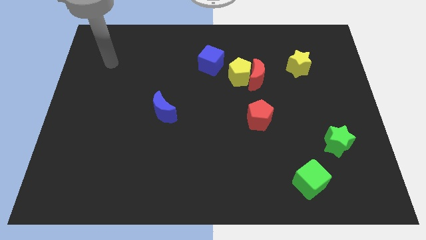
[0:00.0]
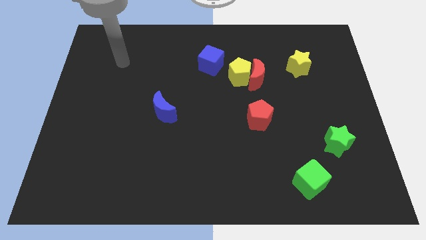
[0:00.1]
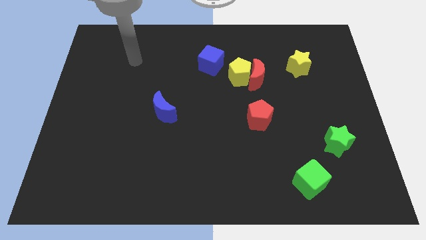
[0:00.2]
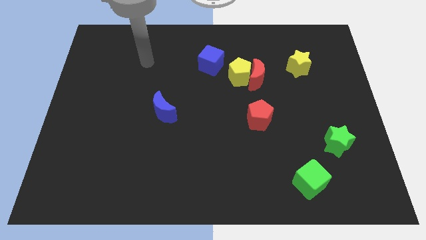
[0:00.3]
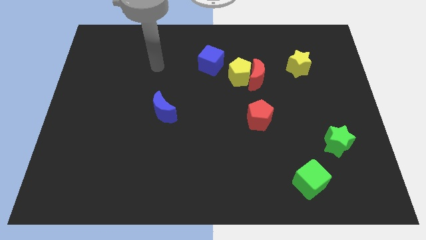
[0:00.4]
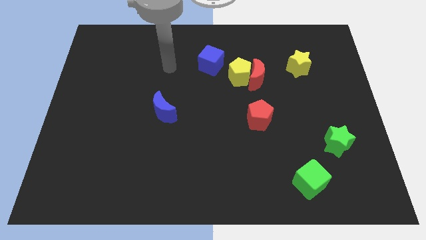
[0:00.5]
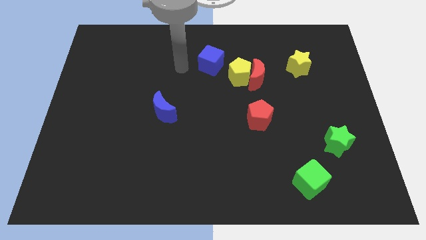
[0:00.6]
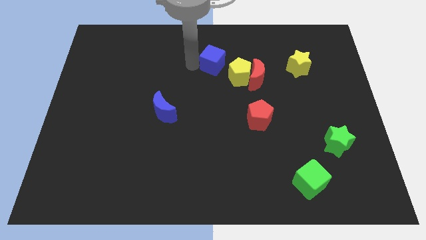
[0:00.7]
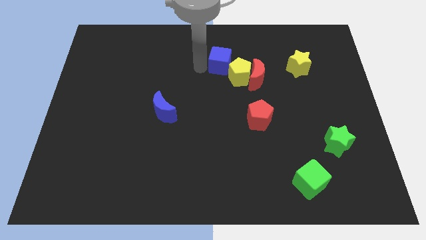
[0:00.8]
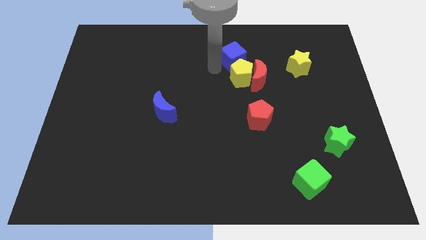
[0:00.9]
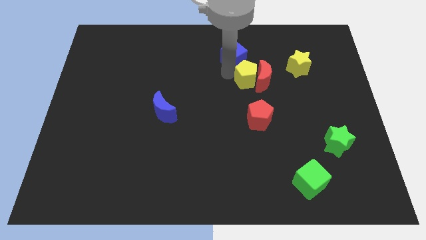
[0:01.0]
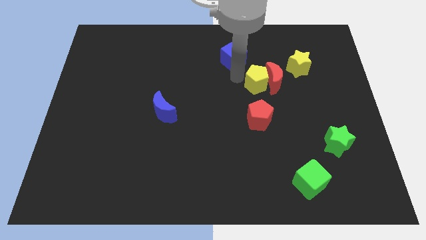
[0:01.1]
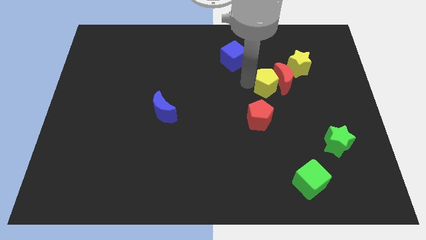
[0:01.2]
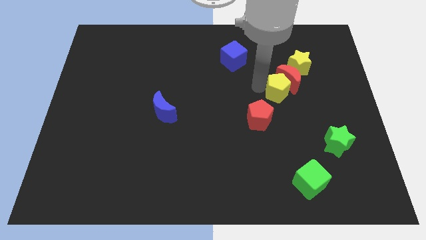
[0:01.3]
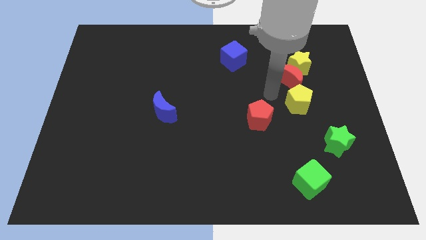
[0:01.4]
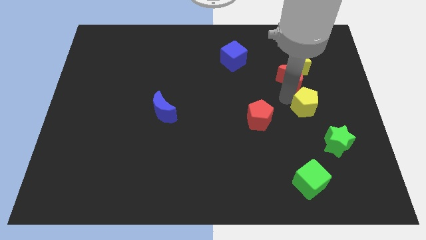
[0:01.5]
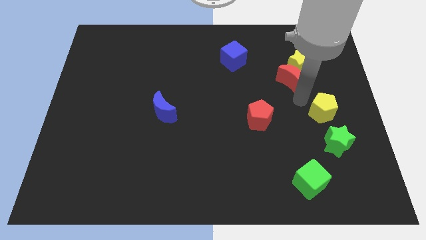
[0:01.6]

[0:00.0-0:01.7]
separate the red moon from the yellow pentagon

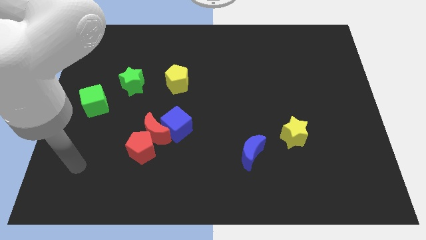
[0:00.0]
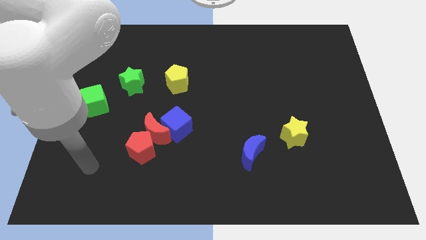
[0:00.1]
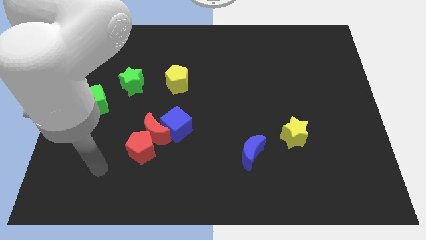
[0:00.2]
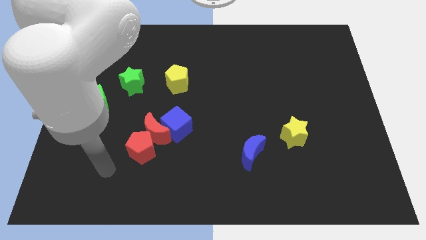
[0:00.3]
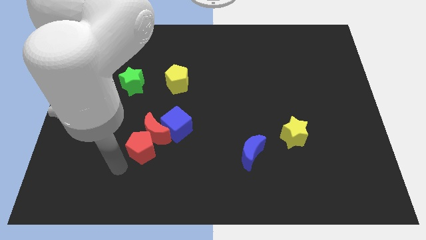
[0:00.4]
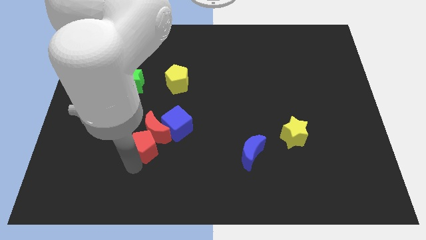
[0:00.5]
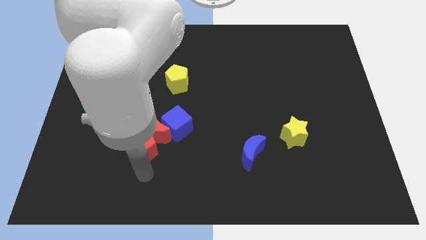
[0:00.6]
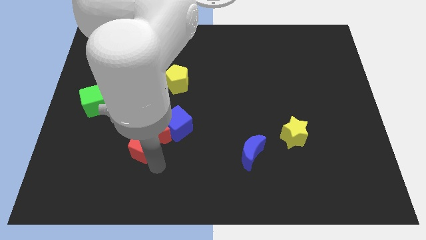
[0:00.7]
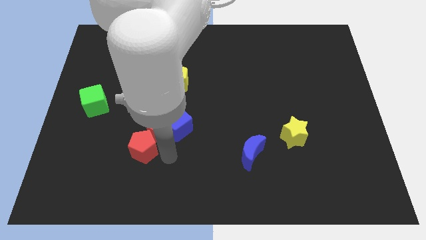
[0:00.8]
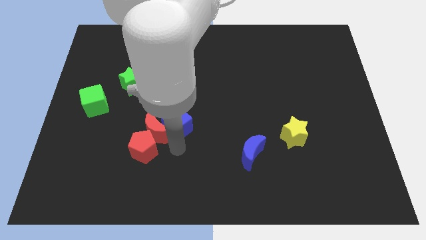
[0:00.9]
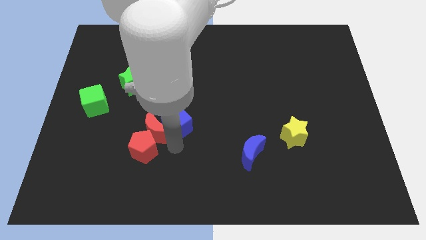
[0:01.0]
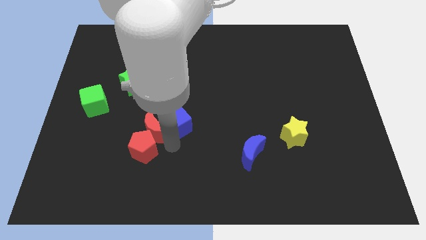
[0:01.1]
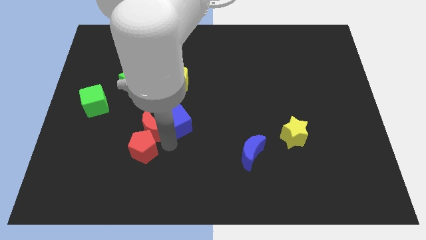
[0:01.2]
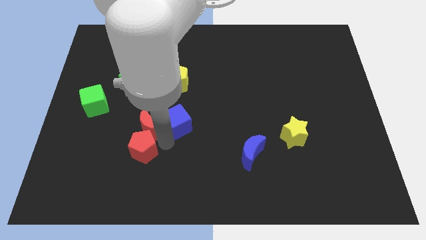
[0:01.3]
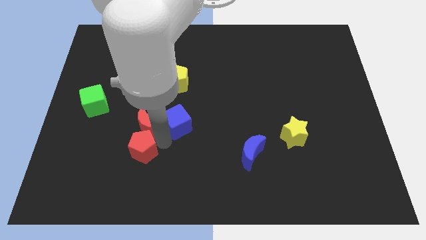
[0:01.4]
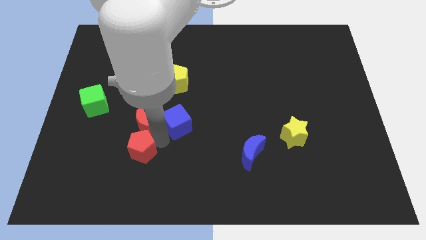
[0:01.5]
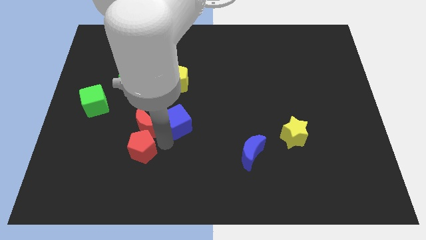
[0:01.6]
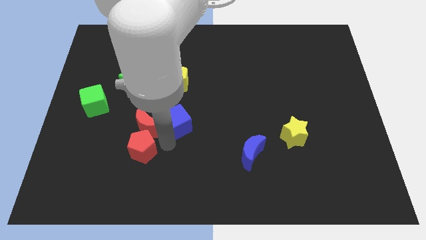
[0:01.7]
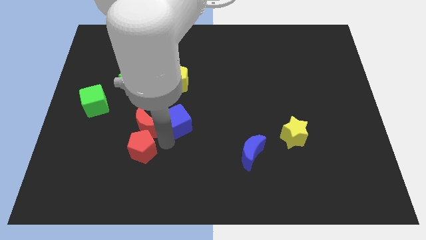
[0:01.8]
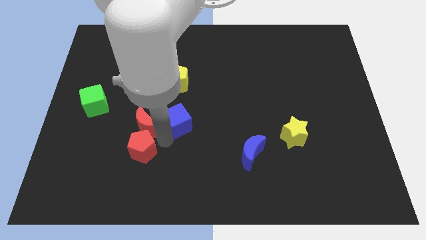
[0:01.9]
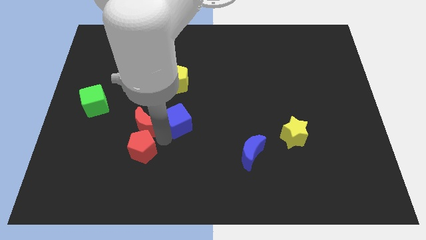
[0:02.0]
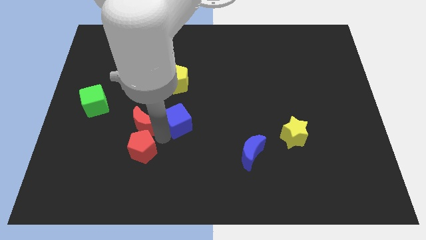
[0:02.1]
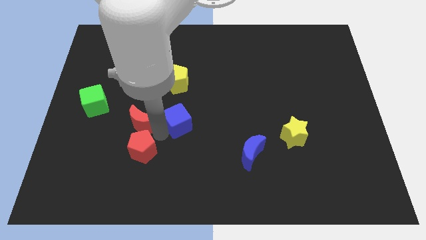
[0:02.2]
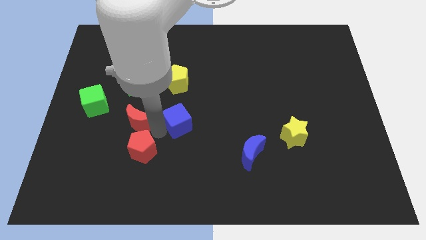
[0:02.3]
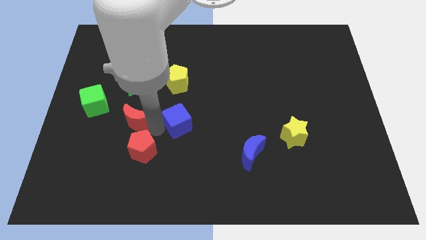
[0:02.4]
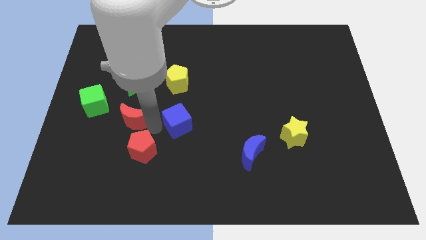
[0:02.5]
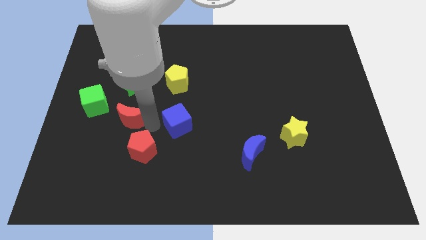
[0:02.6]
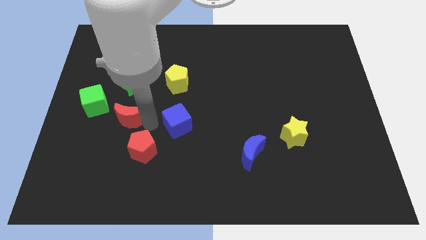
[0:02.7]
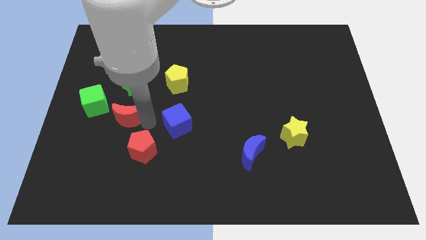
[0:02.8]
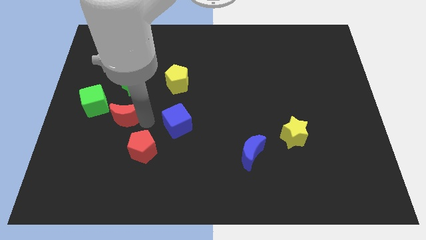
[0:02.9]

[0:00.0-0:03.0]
pull the red moon apart from the blue cube and red pentagon

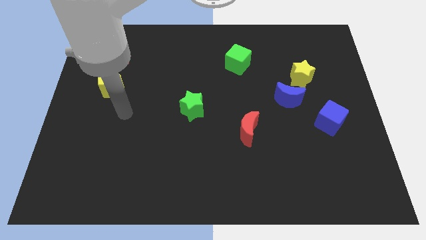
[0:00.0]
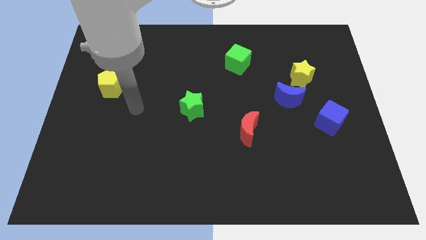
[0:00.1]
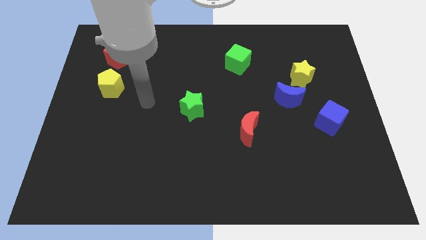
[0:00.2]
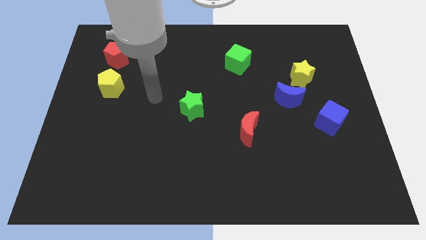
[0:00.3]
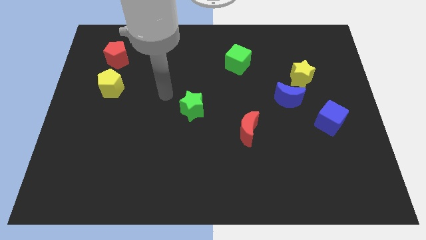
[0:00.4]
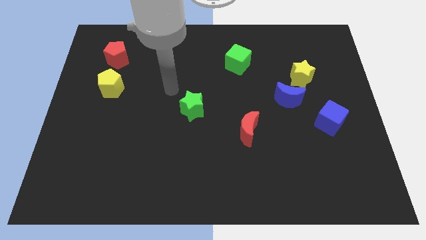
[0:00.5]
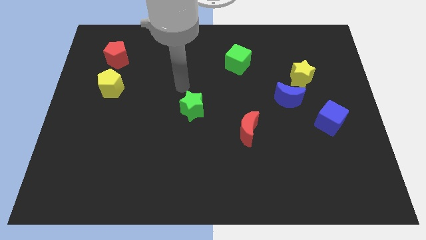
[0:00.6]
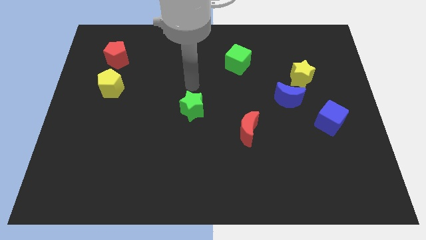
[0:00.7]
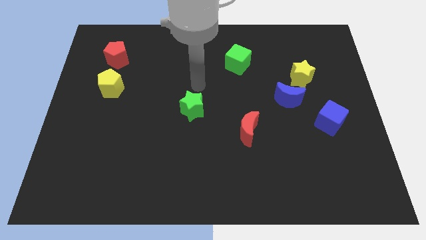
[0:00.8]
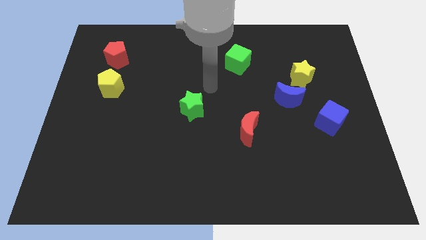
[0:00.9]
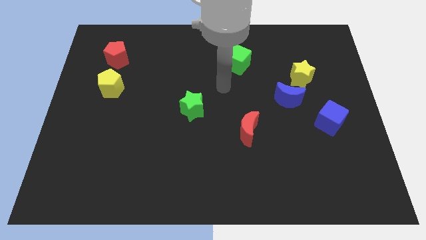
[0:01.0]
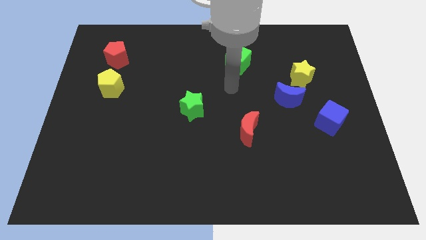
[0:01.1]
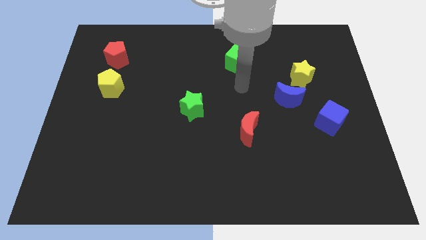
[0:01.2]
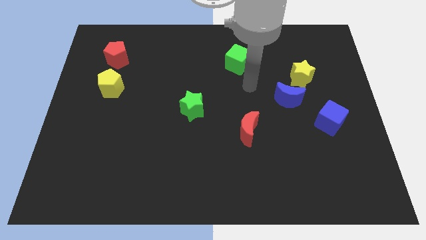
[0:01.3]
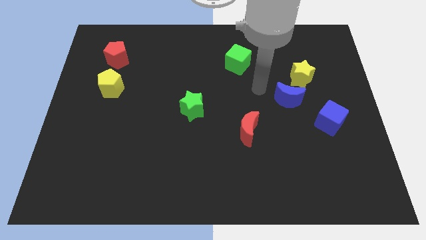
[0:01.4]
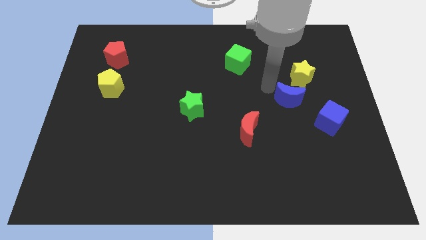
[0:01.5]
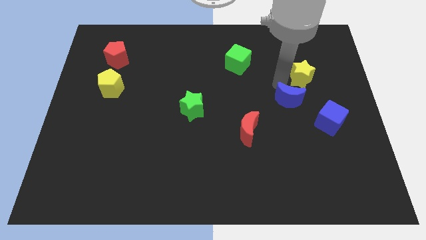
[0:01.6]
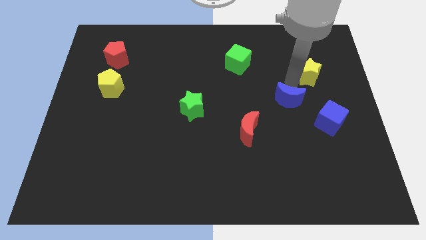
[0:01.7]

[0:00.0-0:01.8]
move the blue moon away from the yellow star

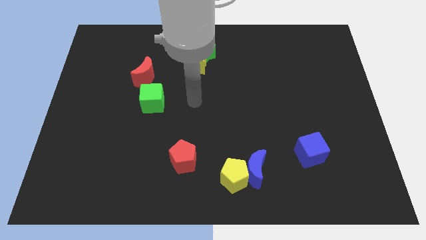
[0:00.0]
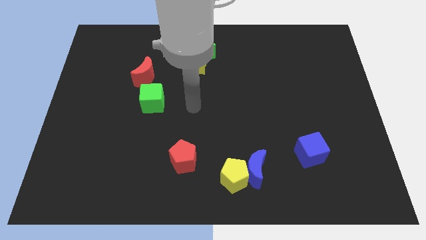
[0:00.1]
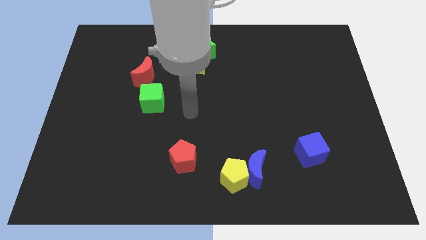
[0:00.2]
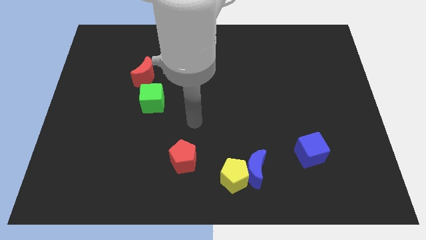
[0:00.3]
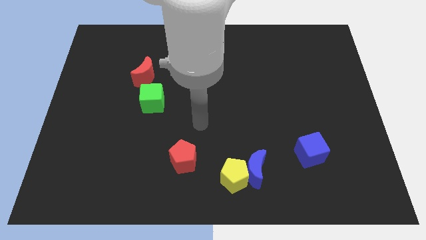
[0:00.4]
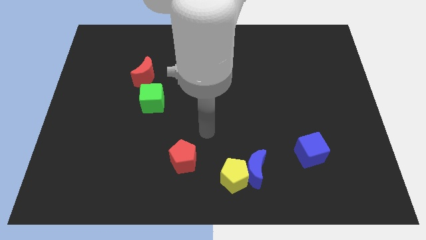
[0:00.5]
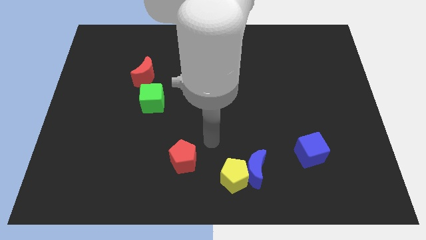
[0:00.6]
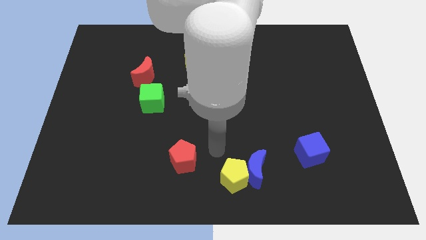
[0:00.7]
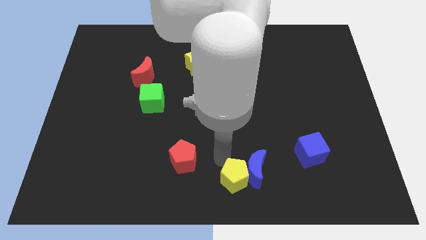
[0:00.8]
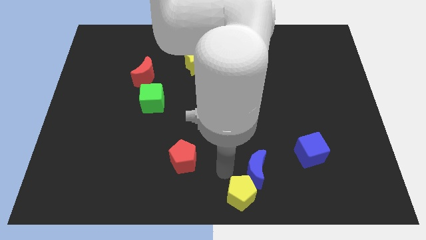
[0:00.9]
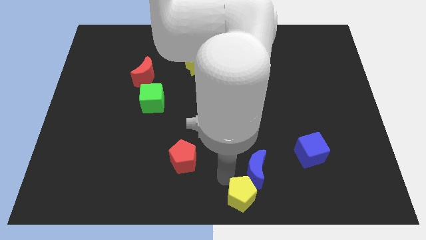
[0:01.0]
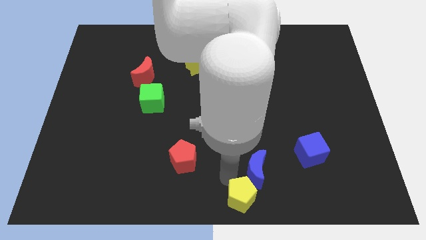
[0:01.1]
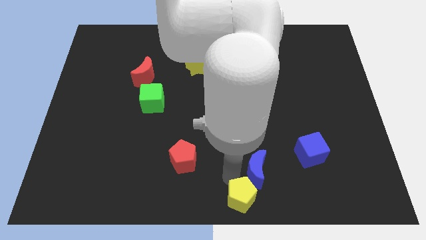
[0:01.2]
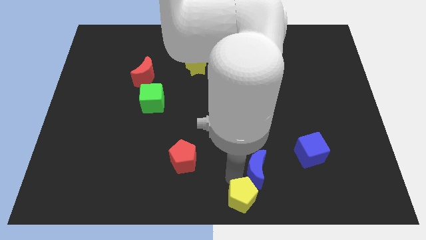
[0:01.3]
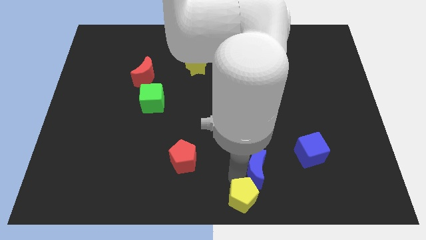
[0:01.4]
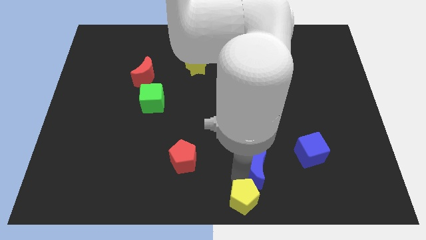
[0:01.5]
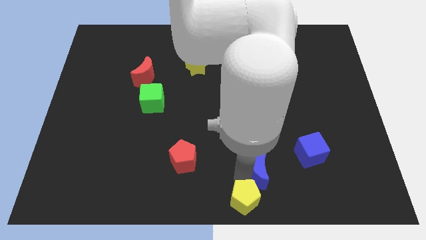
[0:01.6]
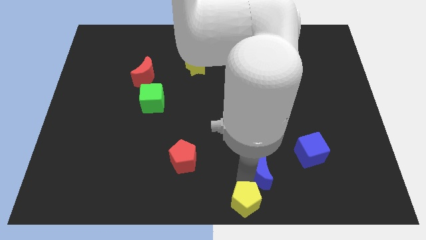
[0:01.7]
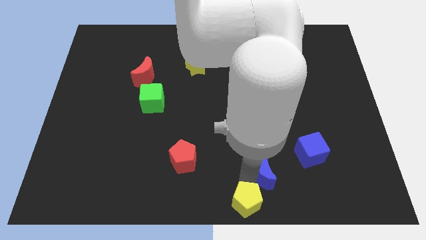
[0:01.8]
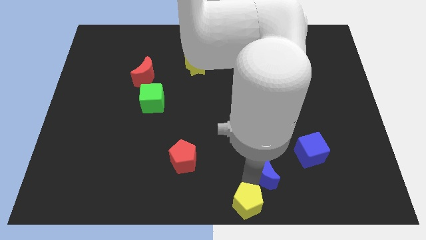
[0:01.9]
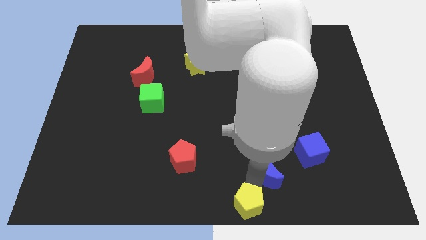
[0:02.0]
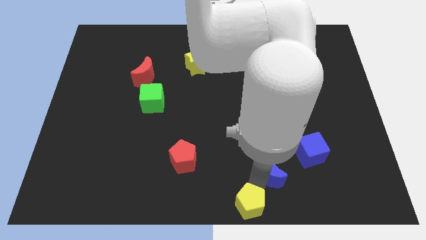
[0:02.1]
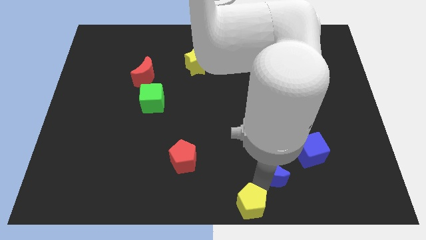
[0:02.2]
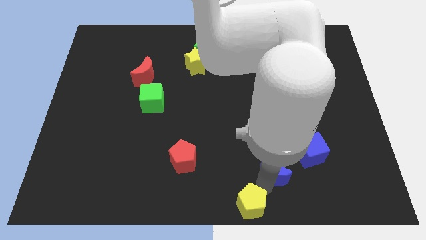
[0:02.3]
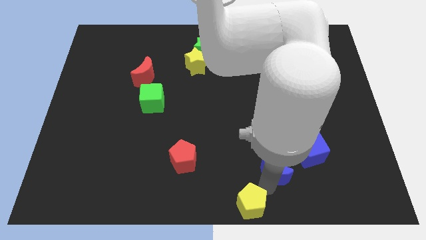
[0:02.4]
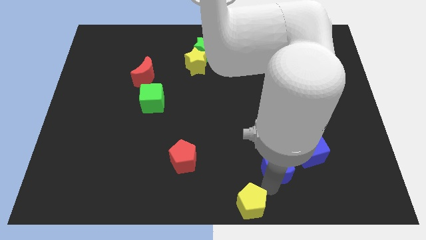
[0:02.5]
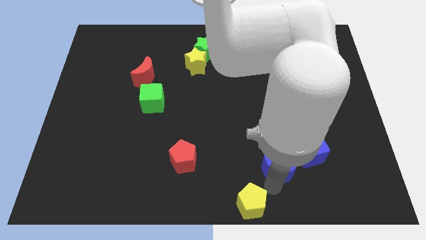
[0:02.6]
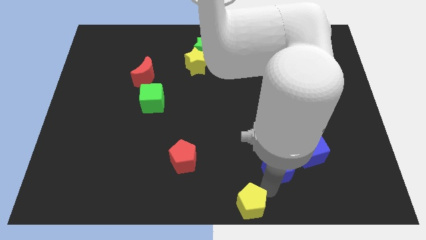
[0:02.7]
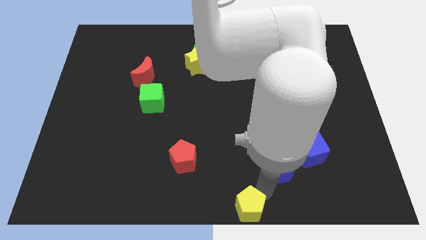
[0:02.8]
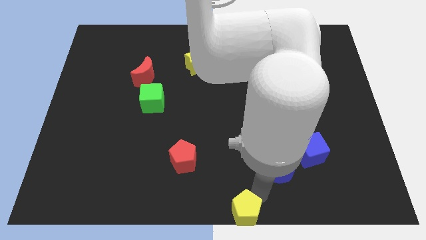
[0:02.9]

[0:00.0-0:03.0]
pull the blue moon apart from the yellow pentagon
